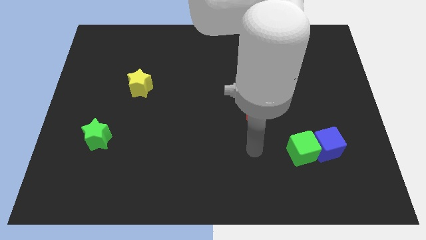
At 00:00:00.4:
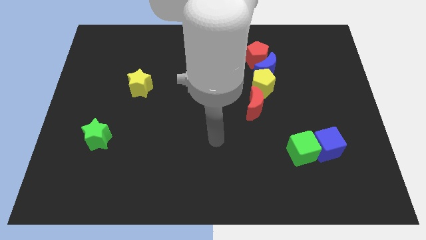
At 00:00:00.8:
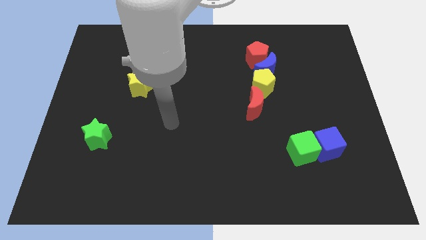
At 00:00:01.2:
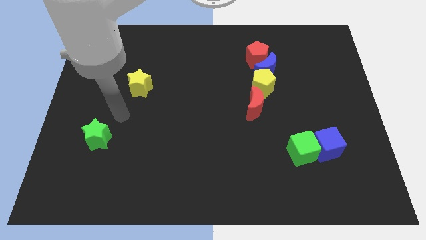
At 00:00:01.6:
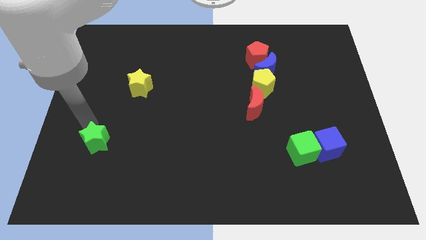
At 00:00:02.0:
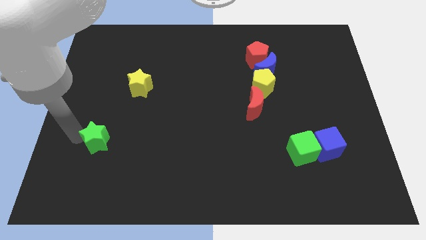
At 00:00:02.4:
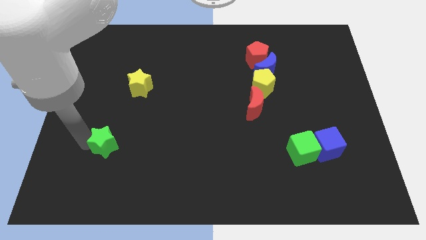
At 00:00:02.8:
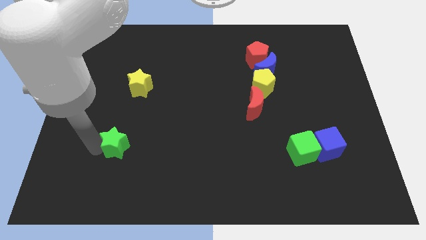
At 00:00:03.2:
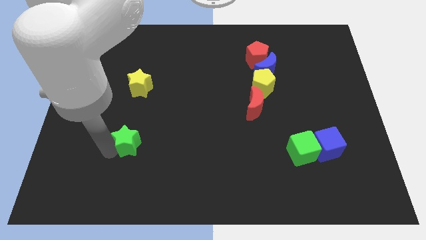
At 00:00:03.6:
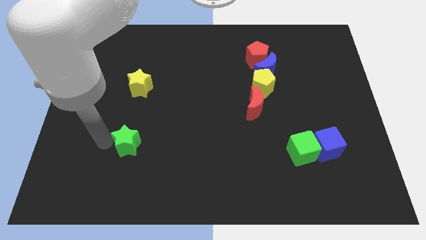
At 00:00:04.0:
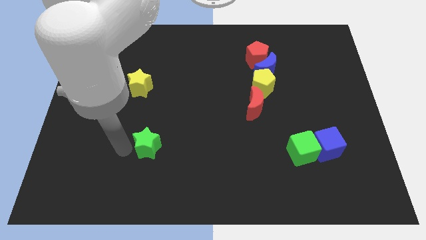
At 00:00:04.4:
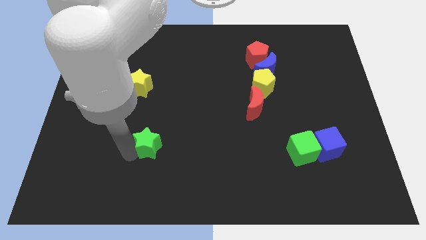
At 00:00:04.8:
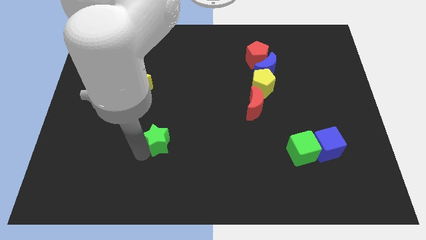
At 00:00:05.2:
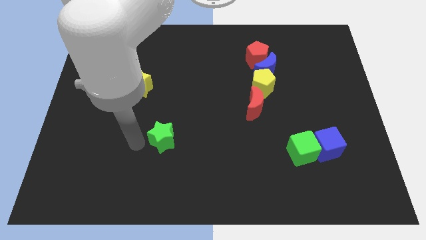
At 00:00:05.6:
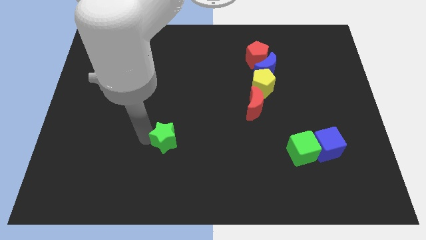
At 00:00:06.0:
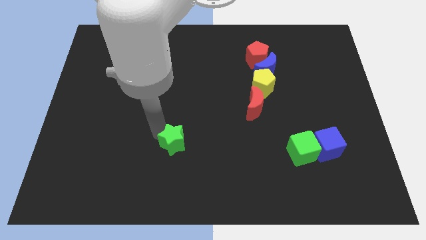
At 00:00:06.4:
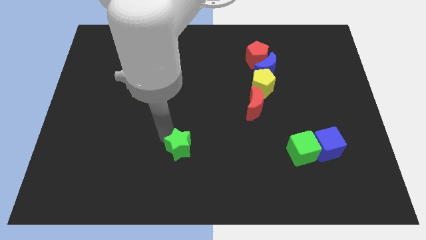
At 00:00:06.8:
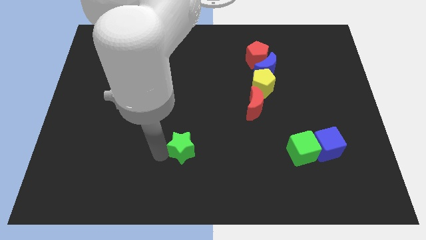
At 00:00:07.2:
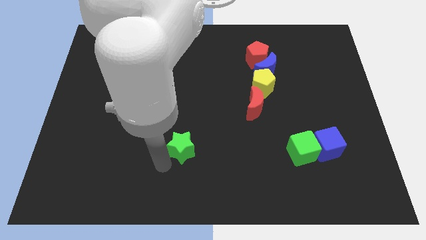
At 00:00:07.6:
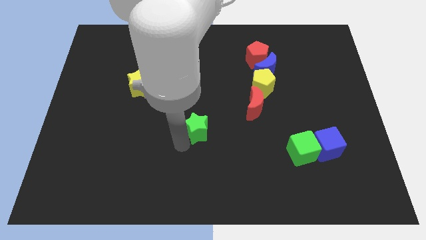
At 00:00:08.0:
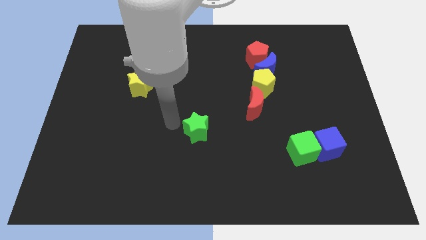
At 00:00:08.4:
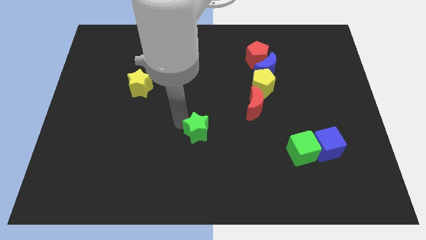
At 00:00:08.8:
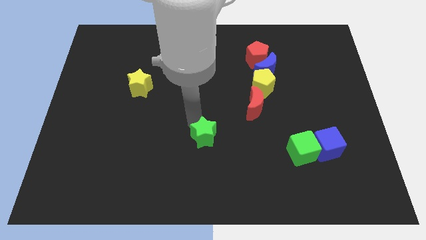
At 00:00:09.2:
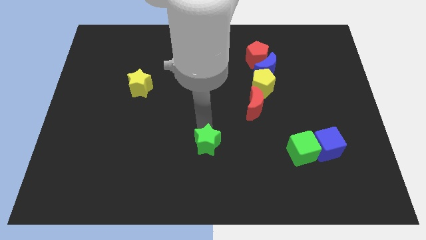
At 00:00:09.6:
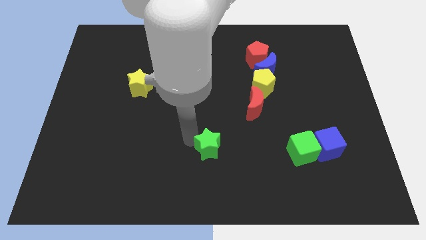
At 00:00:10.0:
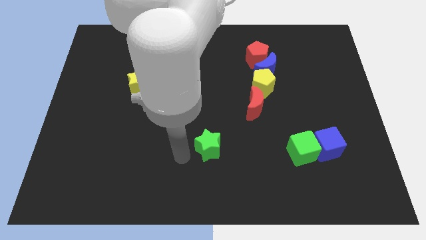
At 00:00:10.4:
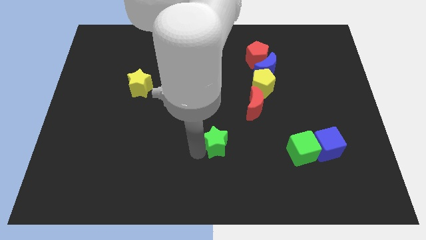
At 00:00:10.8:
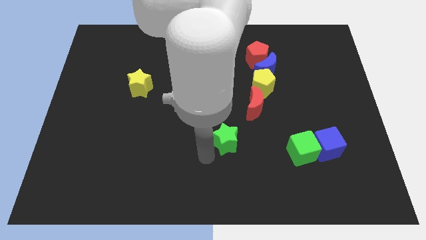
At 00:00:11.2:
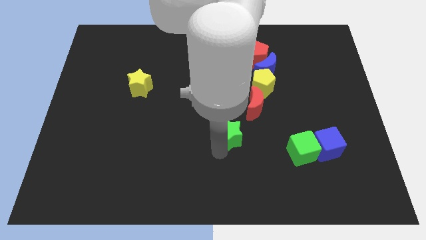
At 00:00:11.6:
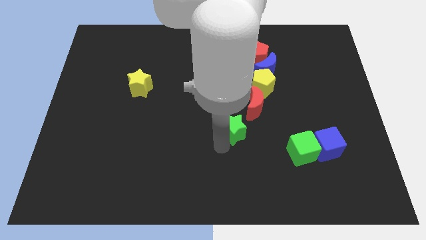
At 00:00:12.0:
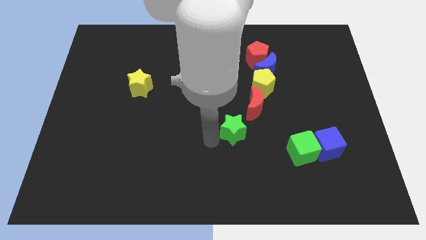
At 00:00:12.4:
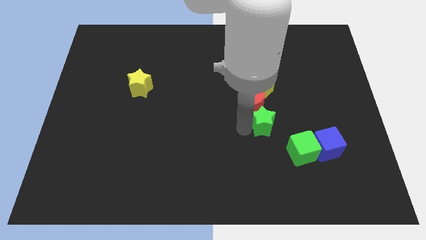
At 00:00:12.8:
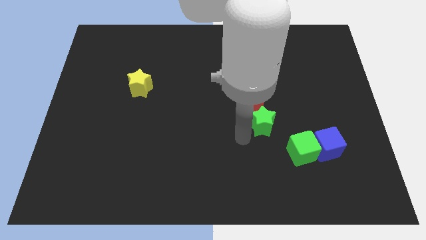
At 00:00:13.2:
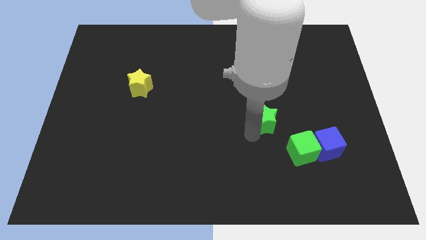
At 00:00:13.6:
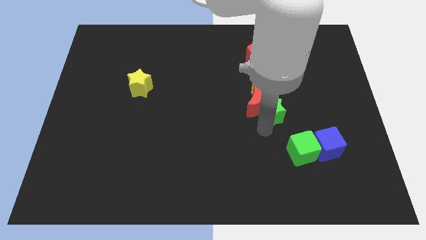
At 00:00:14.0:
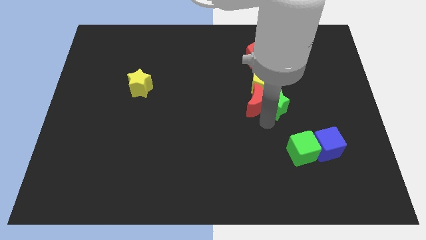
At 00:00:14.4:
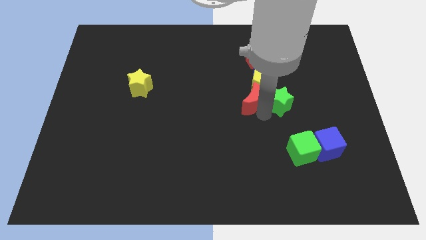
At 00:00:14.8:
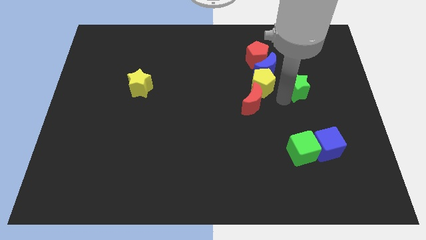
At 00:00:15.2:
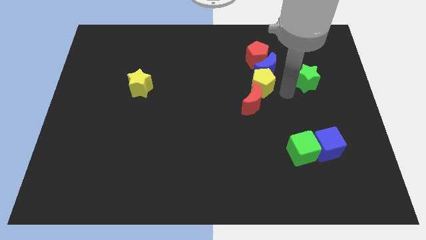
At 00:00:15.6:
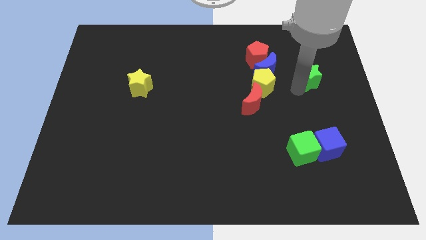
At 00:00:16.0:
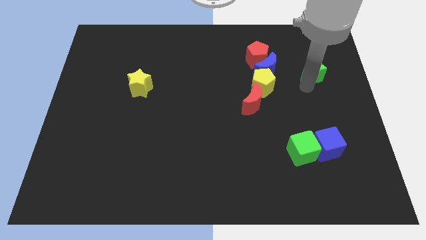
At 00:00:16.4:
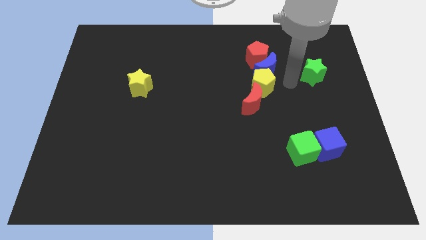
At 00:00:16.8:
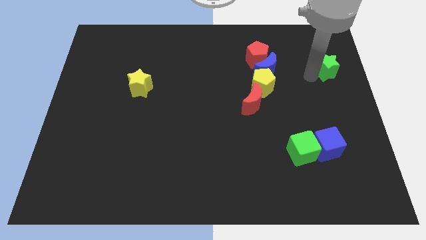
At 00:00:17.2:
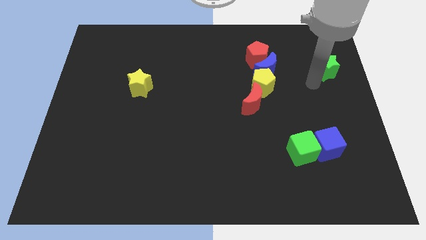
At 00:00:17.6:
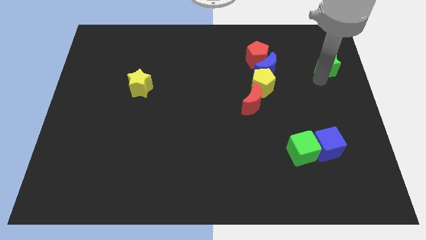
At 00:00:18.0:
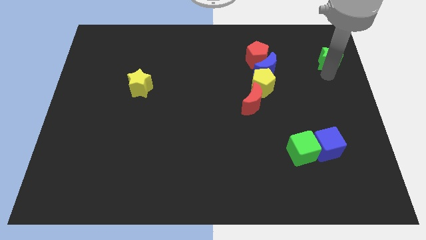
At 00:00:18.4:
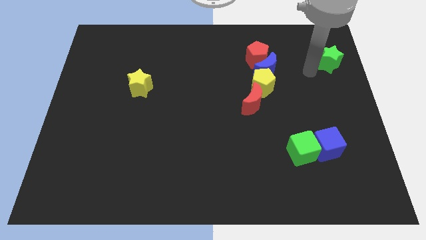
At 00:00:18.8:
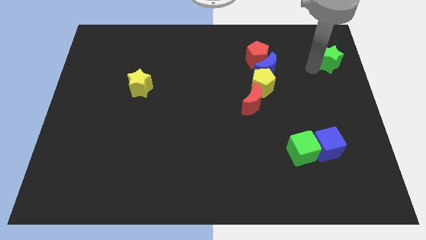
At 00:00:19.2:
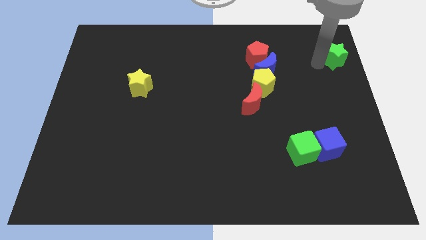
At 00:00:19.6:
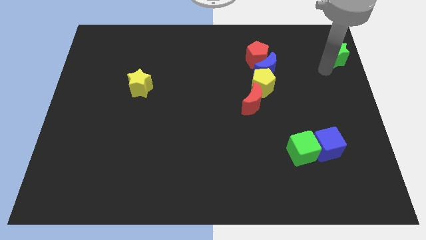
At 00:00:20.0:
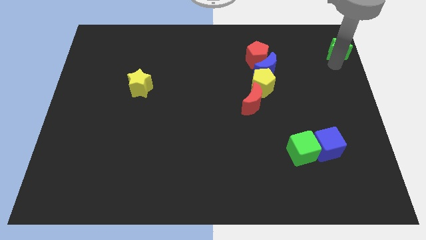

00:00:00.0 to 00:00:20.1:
slide the green star to the top right corner

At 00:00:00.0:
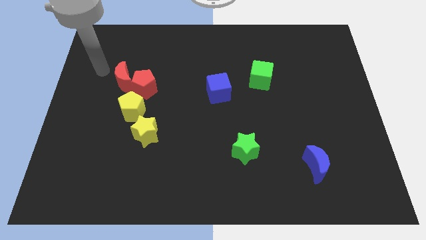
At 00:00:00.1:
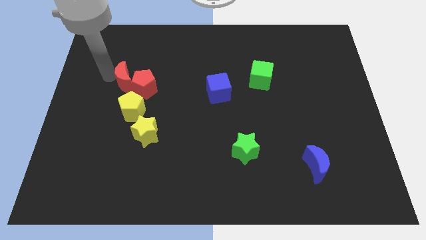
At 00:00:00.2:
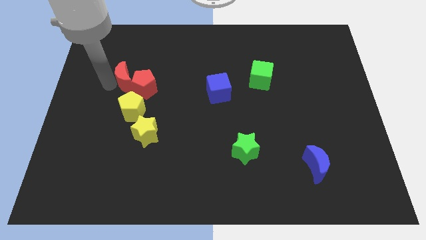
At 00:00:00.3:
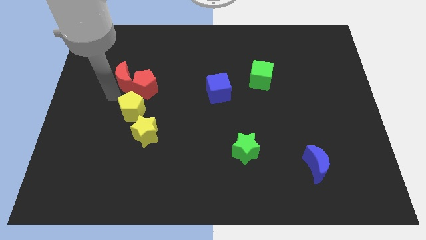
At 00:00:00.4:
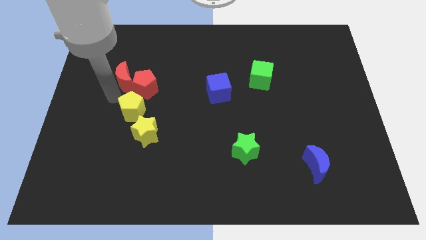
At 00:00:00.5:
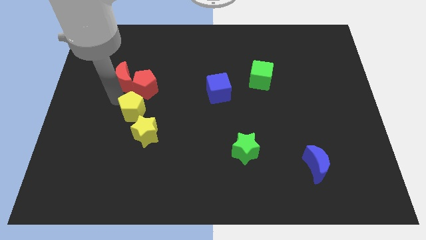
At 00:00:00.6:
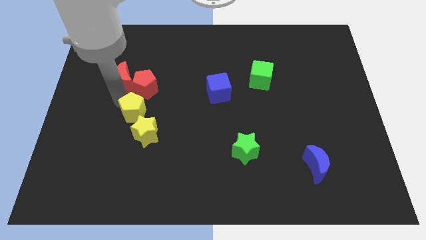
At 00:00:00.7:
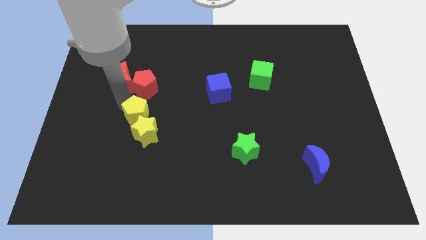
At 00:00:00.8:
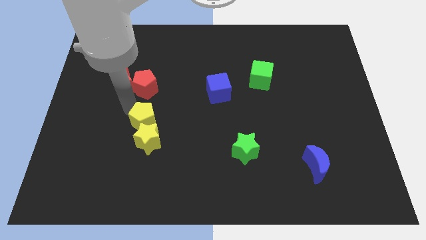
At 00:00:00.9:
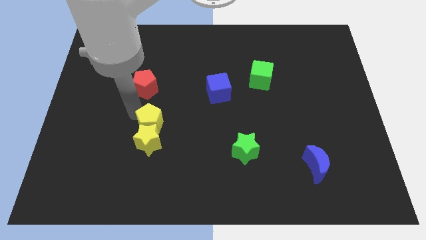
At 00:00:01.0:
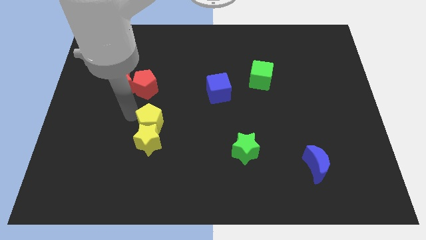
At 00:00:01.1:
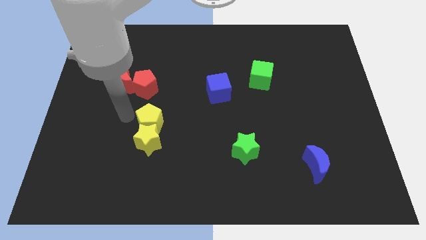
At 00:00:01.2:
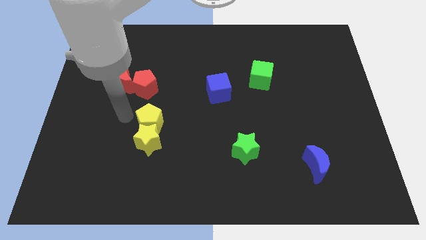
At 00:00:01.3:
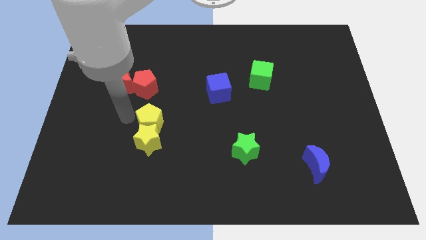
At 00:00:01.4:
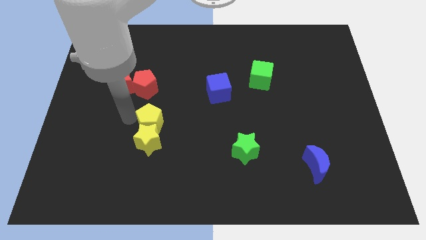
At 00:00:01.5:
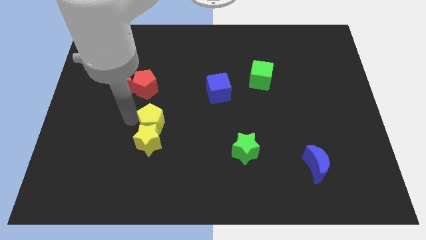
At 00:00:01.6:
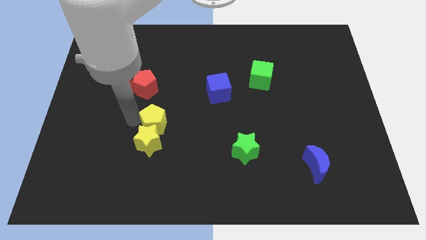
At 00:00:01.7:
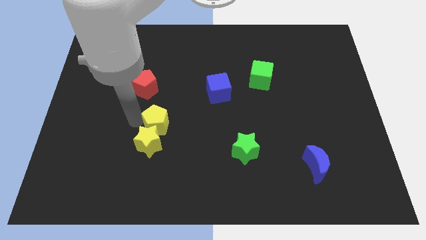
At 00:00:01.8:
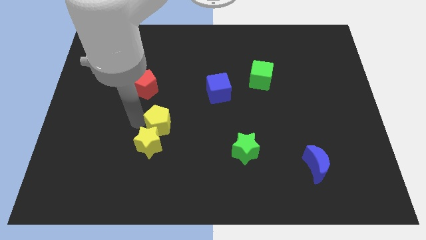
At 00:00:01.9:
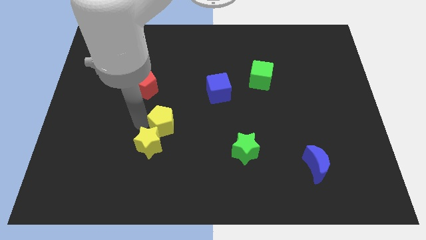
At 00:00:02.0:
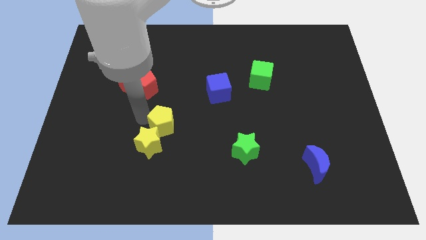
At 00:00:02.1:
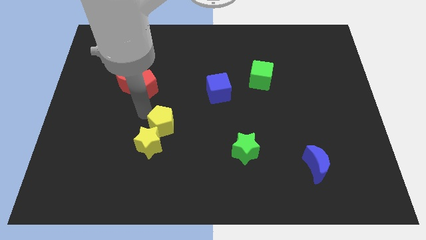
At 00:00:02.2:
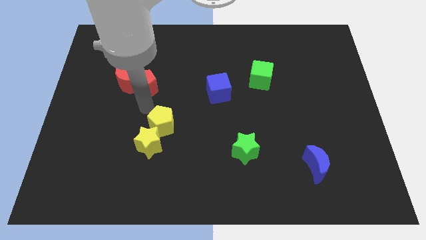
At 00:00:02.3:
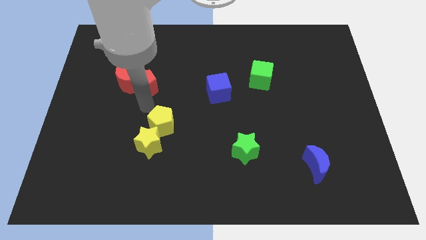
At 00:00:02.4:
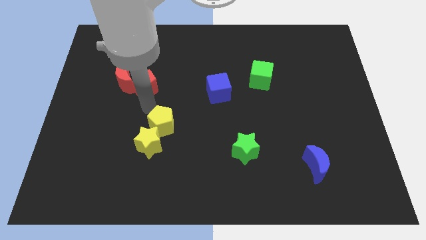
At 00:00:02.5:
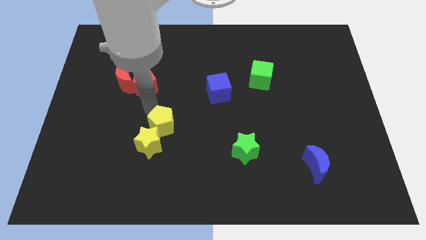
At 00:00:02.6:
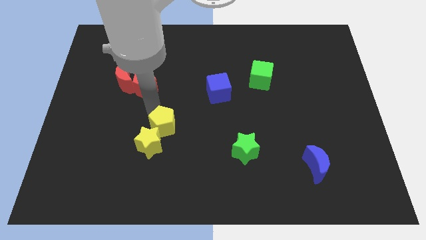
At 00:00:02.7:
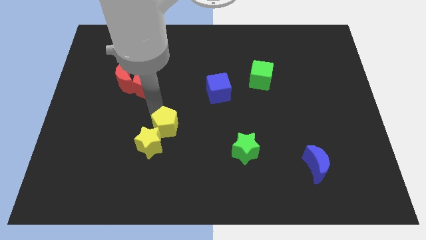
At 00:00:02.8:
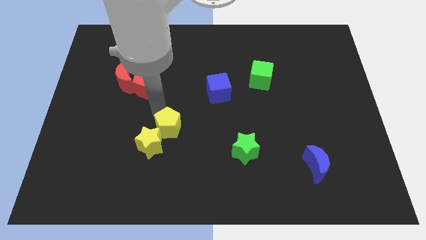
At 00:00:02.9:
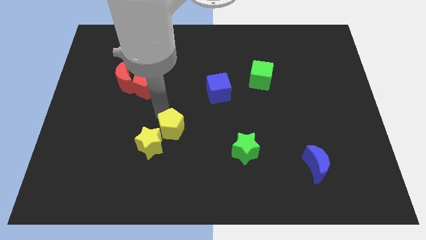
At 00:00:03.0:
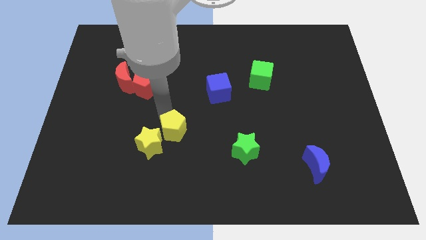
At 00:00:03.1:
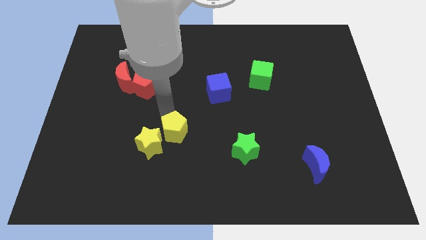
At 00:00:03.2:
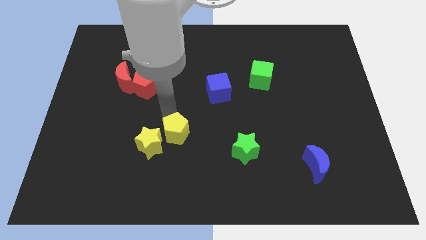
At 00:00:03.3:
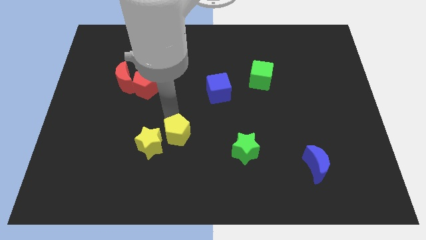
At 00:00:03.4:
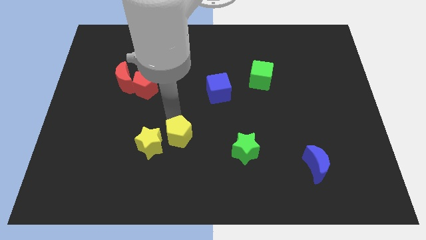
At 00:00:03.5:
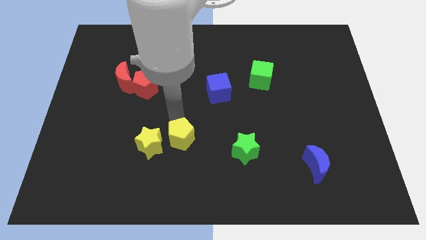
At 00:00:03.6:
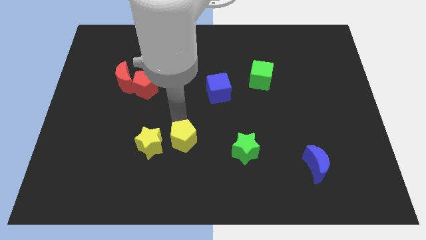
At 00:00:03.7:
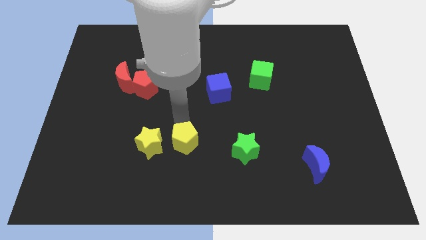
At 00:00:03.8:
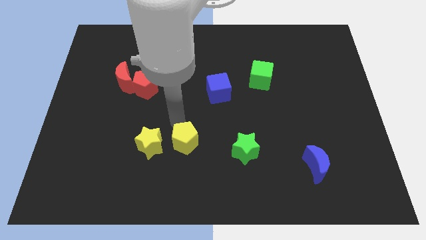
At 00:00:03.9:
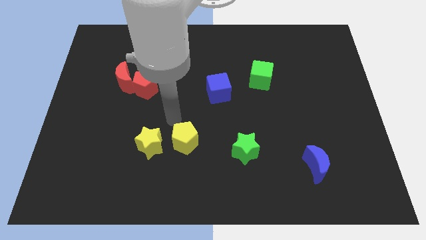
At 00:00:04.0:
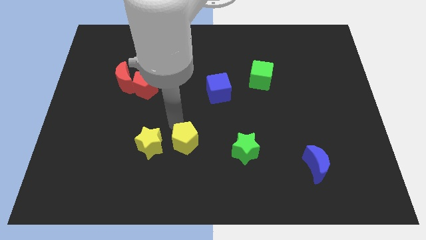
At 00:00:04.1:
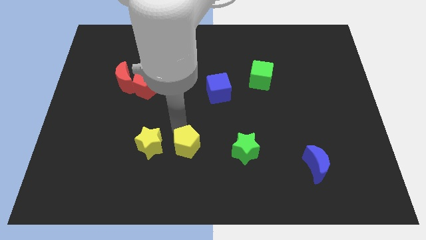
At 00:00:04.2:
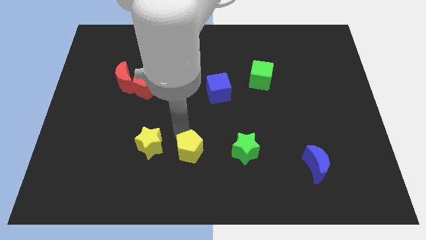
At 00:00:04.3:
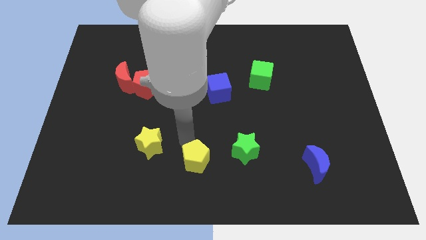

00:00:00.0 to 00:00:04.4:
slide the yellow pentagon to the bottom
